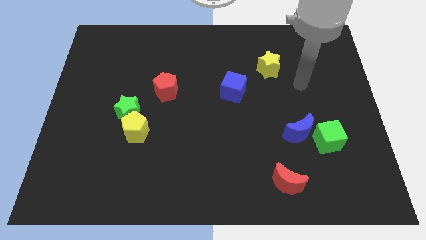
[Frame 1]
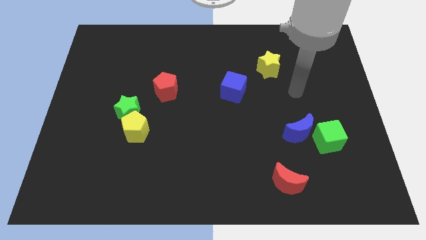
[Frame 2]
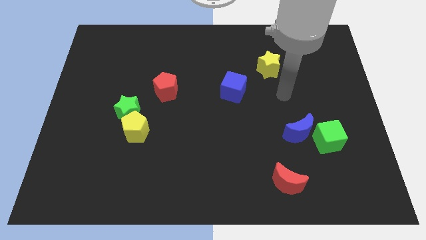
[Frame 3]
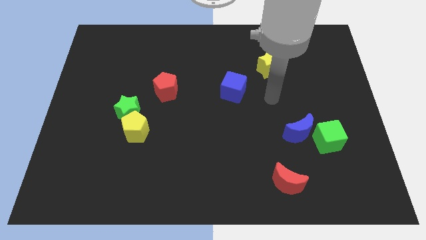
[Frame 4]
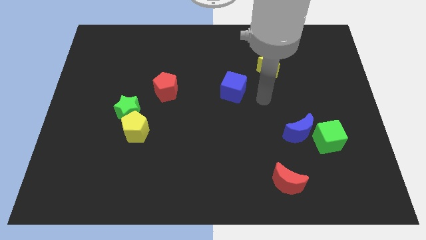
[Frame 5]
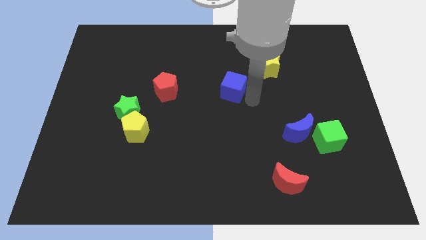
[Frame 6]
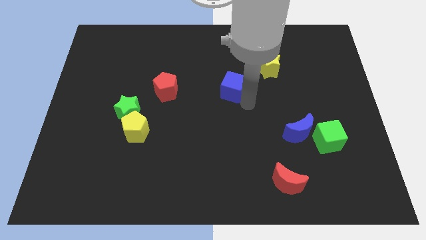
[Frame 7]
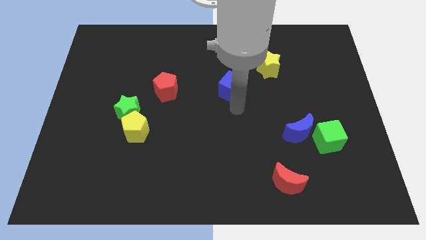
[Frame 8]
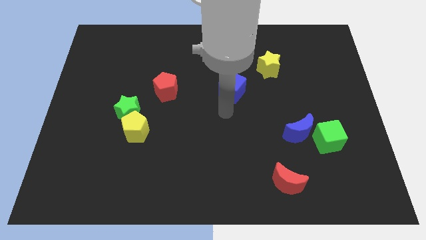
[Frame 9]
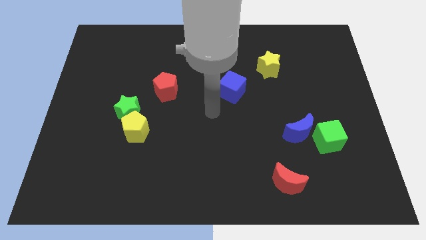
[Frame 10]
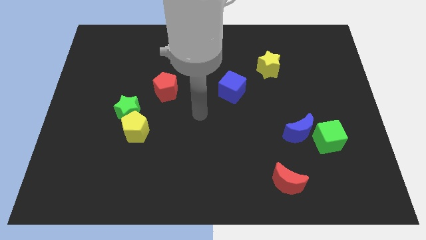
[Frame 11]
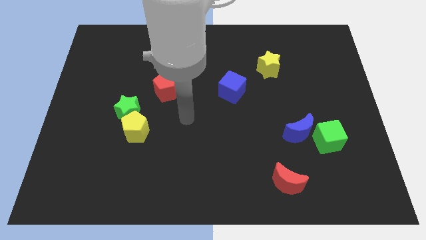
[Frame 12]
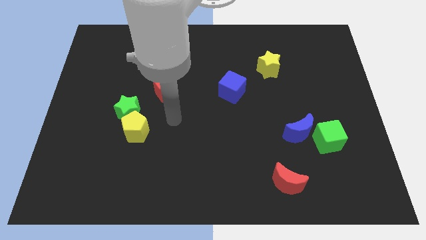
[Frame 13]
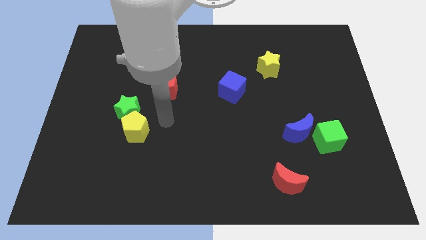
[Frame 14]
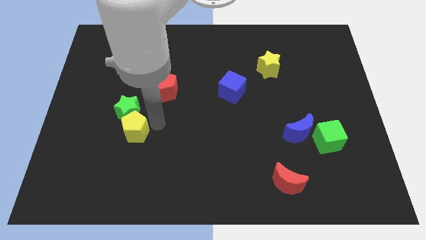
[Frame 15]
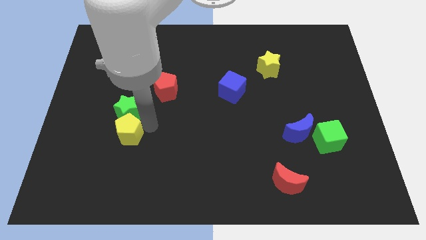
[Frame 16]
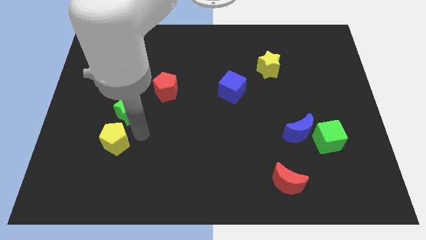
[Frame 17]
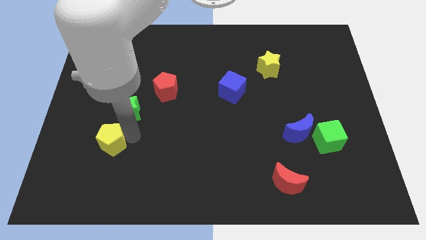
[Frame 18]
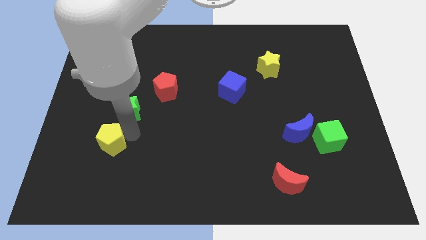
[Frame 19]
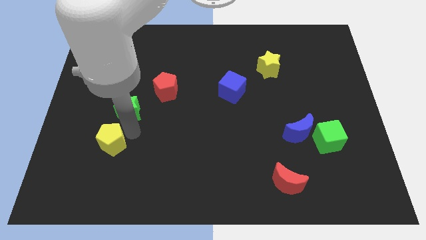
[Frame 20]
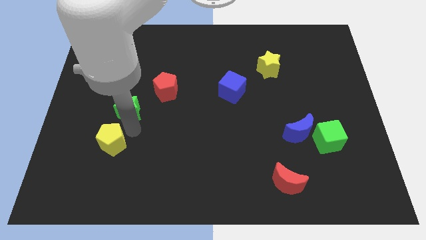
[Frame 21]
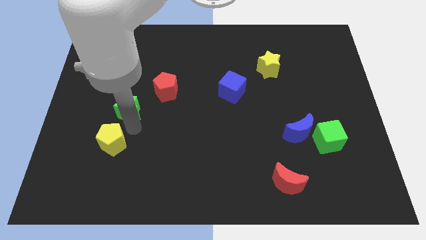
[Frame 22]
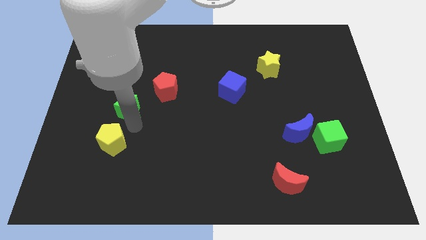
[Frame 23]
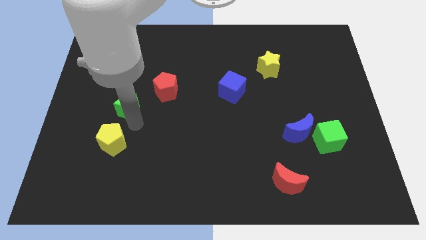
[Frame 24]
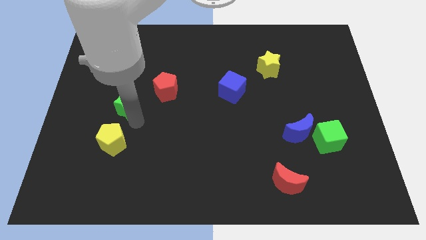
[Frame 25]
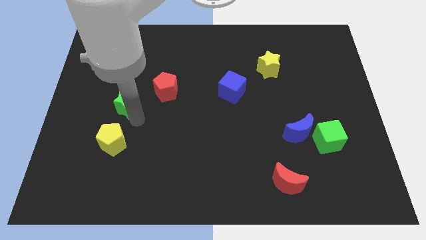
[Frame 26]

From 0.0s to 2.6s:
separate the green star from the yellow pentagon

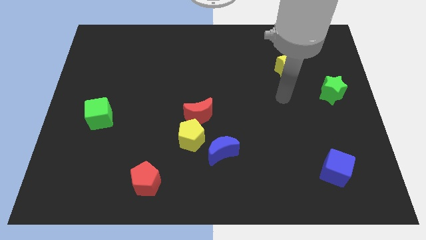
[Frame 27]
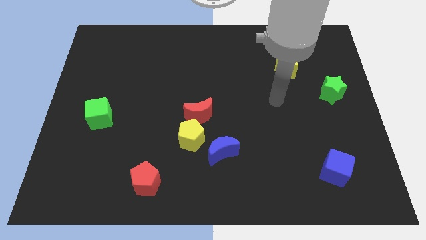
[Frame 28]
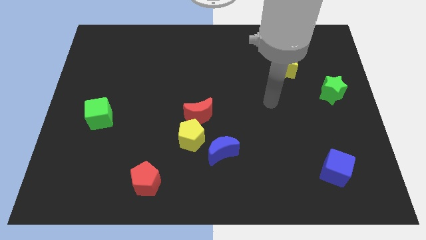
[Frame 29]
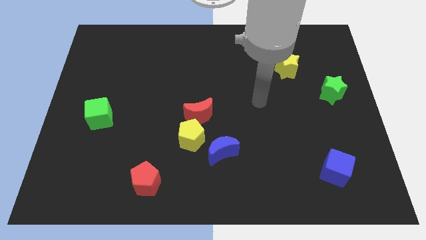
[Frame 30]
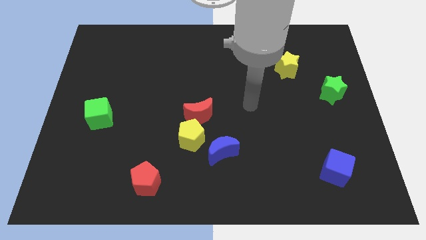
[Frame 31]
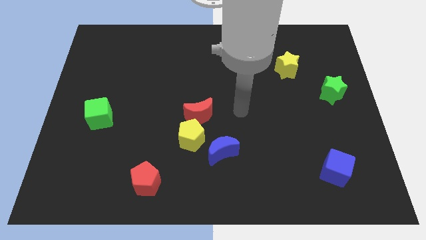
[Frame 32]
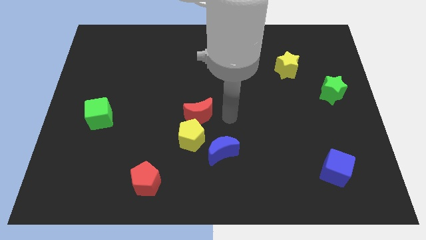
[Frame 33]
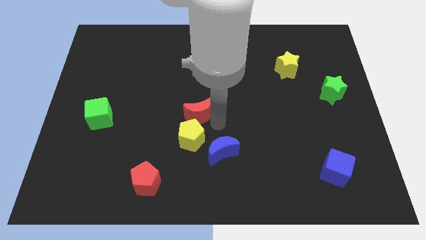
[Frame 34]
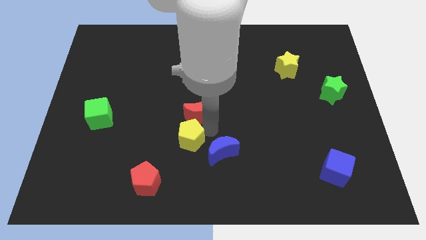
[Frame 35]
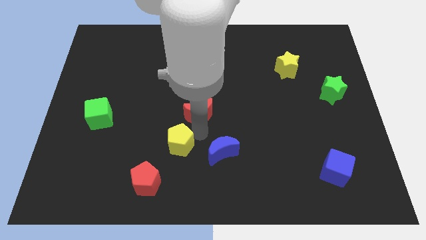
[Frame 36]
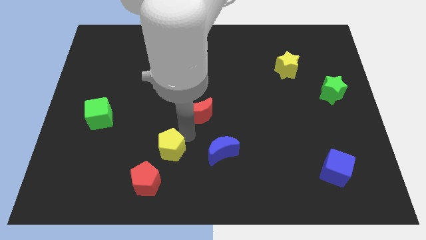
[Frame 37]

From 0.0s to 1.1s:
move the red moon away from the yellow pentagon

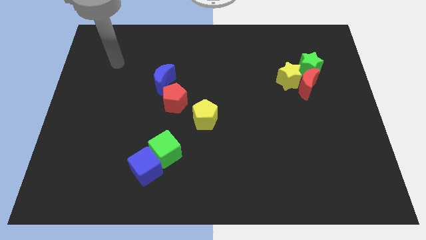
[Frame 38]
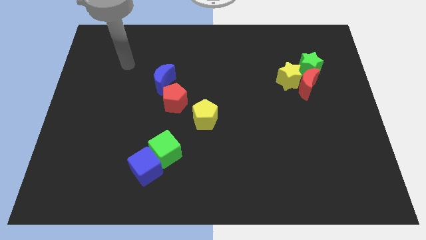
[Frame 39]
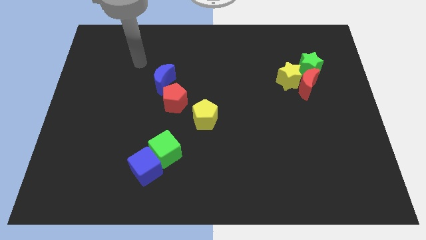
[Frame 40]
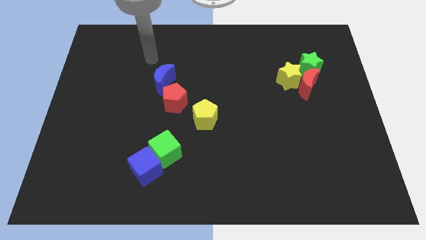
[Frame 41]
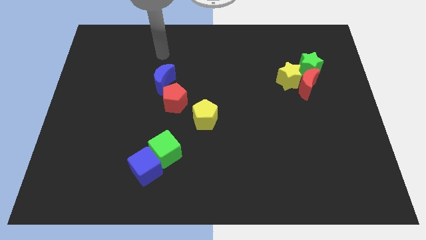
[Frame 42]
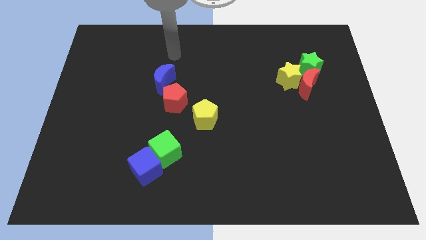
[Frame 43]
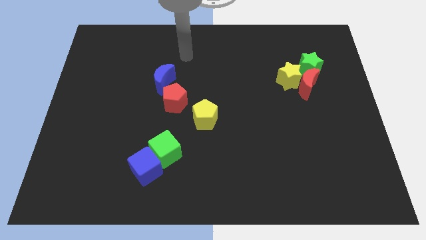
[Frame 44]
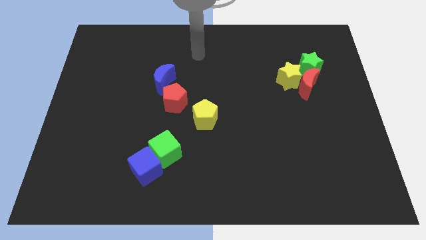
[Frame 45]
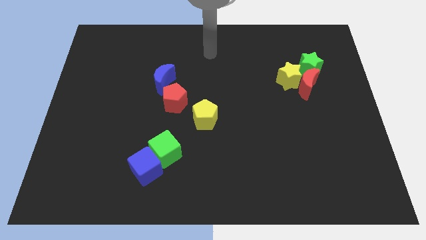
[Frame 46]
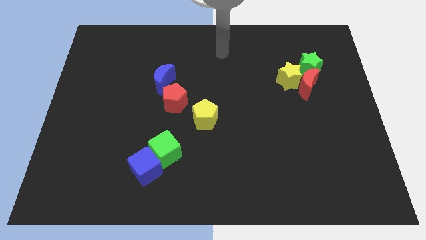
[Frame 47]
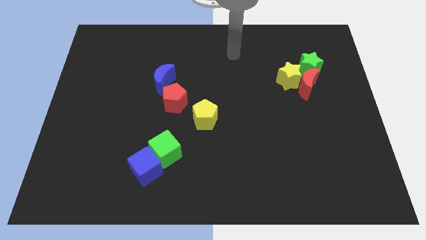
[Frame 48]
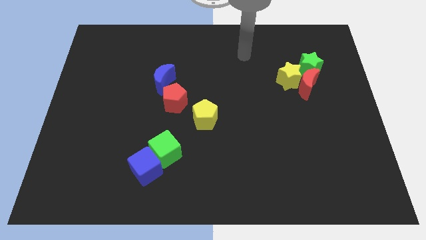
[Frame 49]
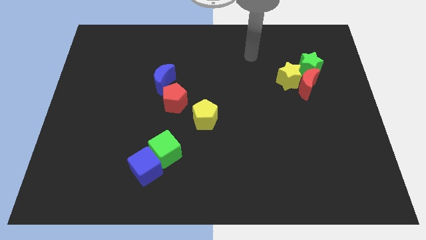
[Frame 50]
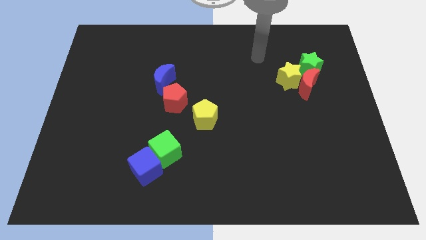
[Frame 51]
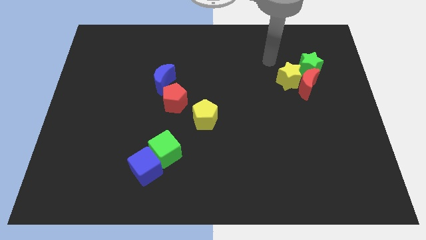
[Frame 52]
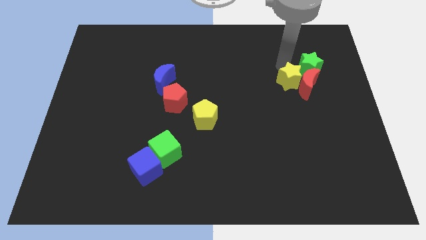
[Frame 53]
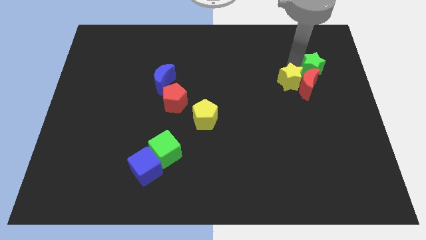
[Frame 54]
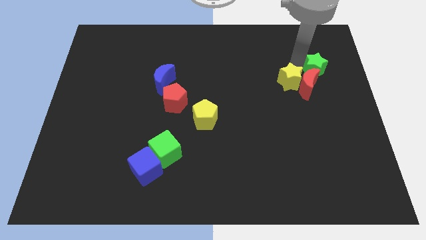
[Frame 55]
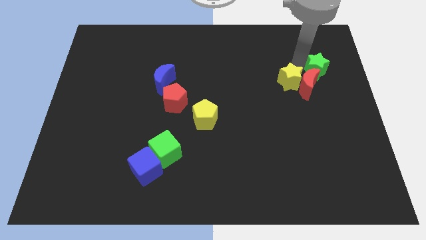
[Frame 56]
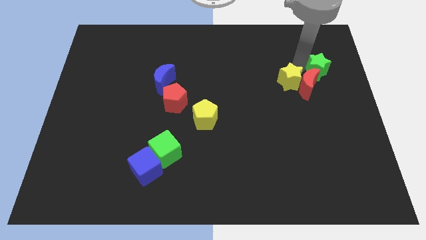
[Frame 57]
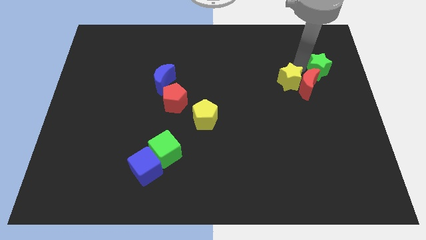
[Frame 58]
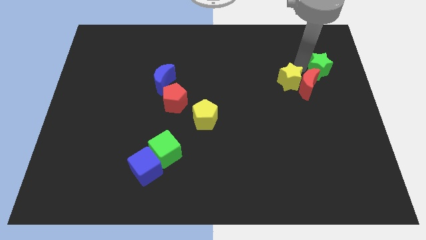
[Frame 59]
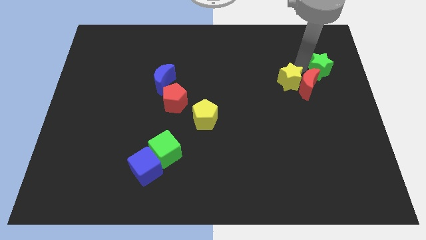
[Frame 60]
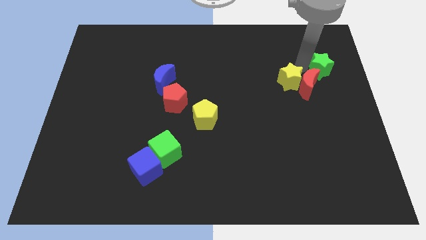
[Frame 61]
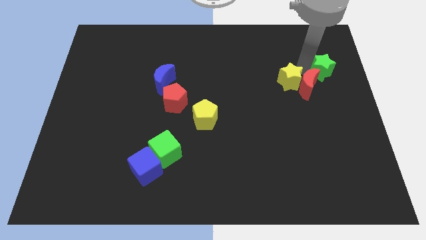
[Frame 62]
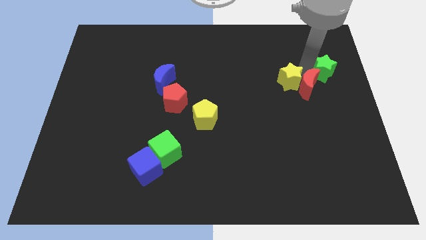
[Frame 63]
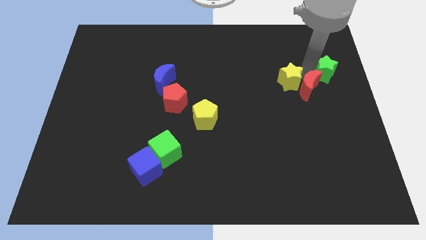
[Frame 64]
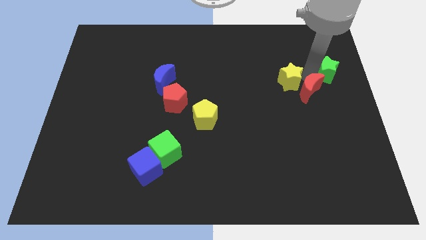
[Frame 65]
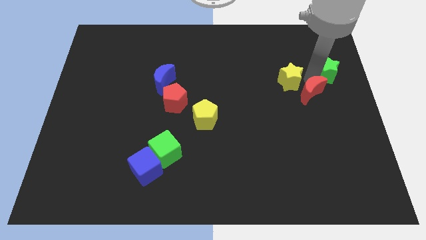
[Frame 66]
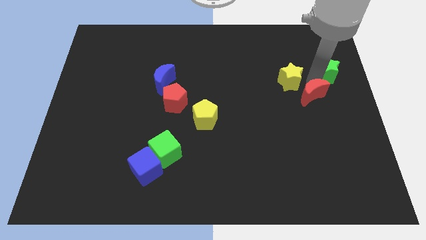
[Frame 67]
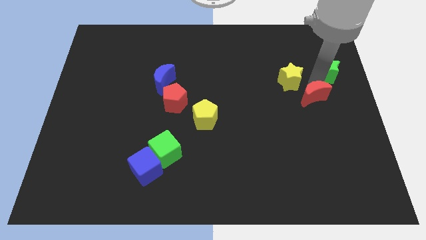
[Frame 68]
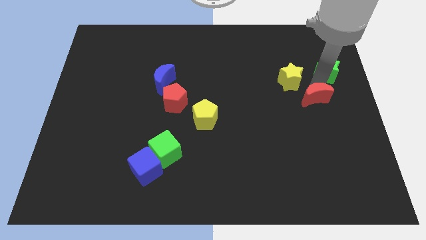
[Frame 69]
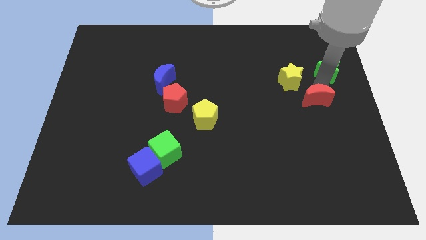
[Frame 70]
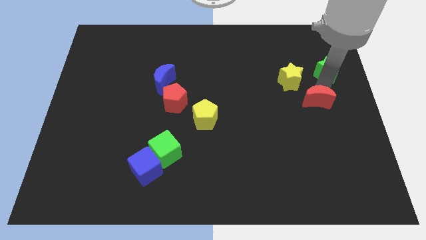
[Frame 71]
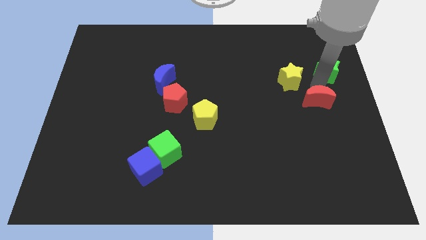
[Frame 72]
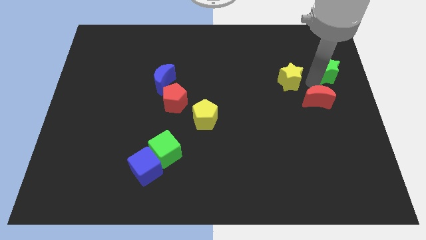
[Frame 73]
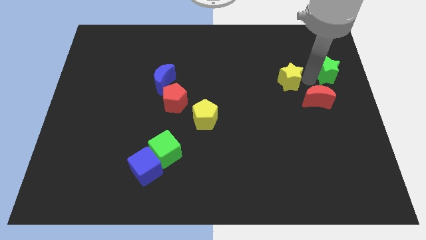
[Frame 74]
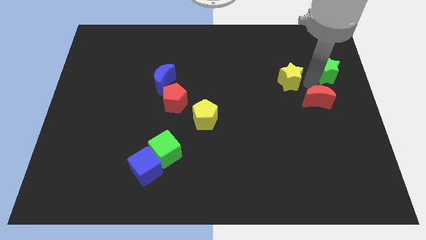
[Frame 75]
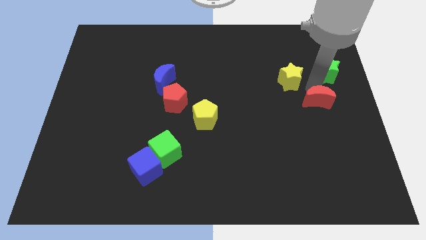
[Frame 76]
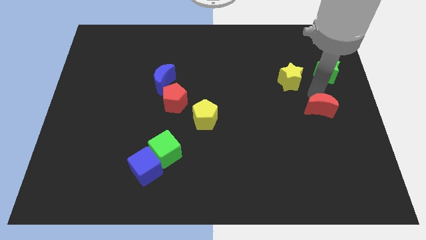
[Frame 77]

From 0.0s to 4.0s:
pull the red moon apart from the yellow star and green star

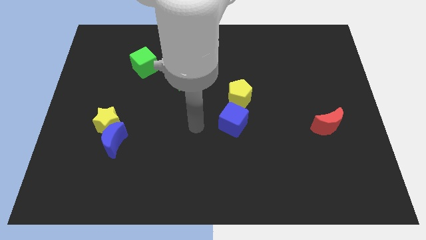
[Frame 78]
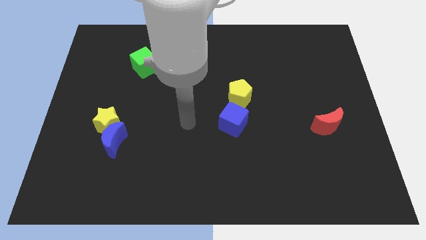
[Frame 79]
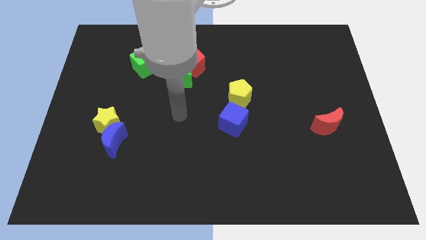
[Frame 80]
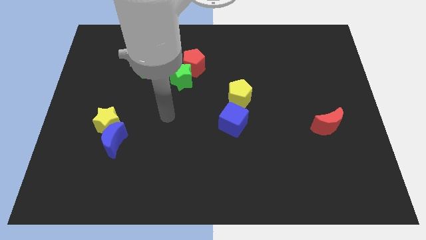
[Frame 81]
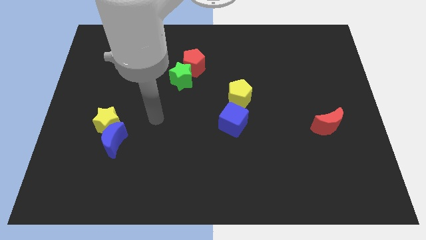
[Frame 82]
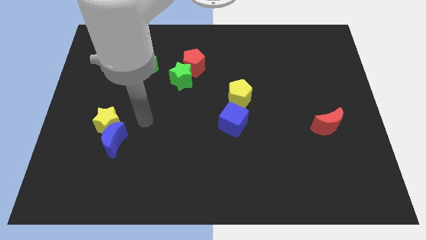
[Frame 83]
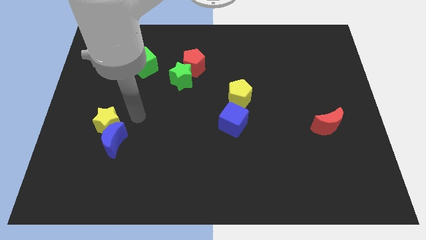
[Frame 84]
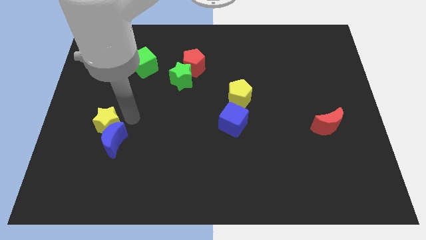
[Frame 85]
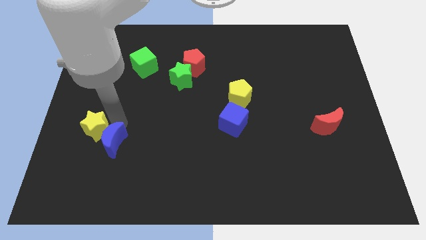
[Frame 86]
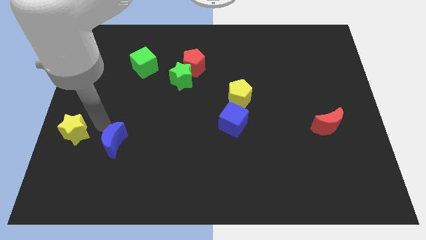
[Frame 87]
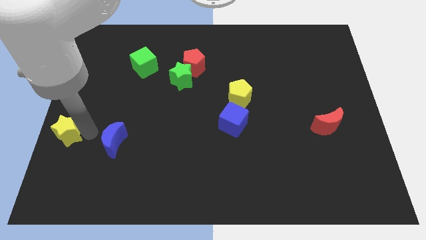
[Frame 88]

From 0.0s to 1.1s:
move the blue moon away from the yellow star

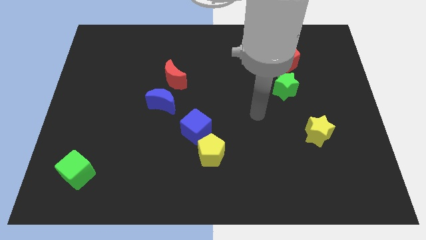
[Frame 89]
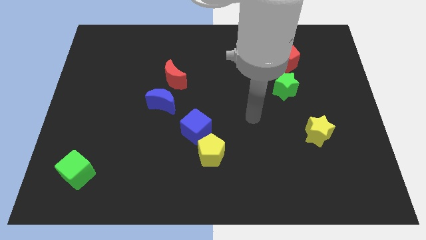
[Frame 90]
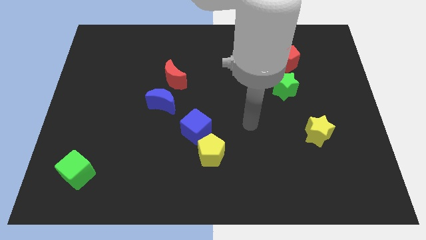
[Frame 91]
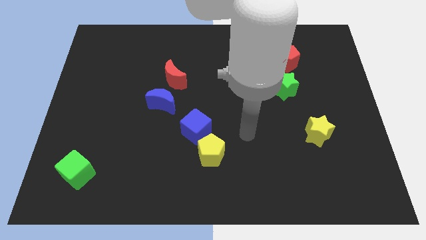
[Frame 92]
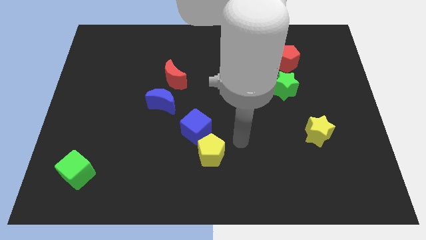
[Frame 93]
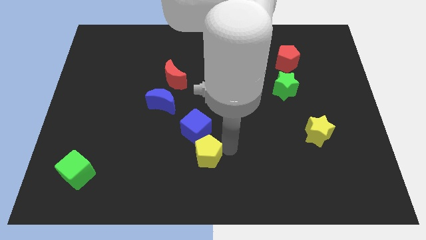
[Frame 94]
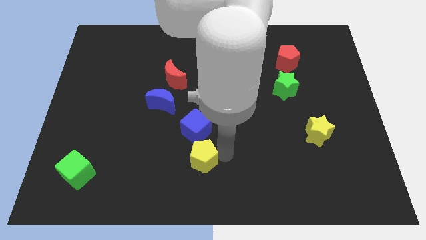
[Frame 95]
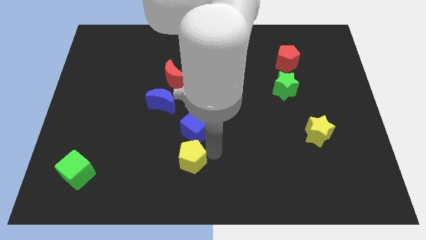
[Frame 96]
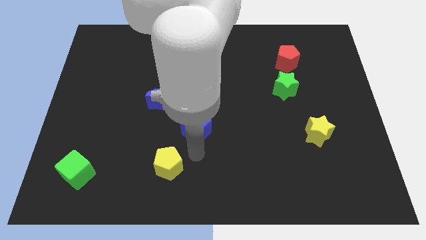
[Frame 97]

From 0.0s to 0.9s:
move the blue cube away from the yellow pentagon
